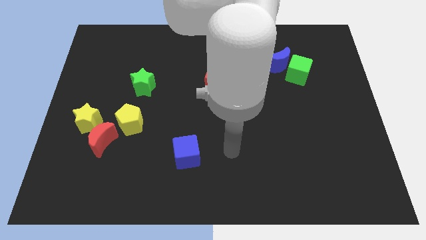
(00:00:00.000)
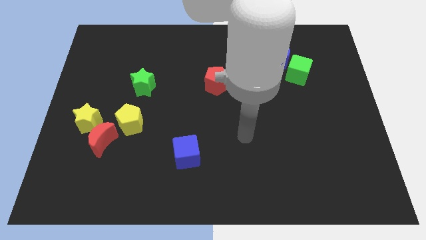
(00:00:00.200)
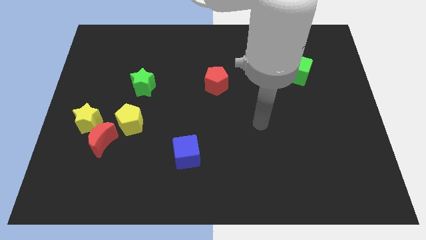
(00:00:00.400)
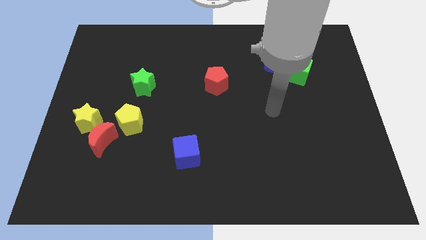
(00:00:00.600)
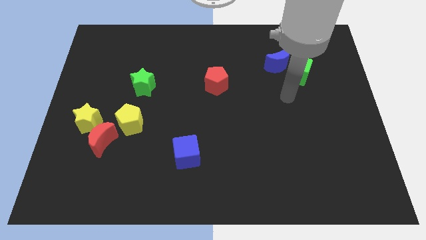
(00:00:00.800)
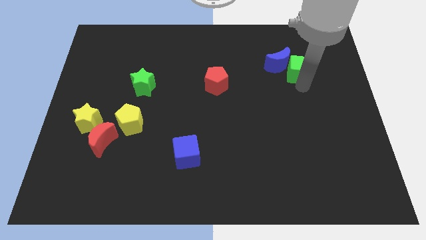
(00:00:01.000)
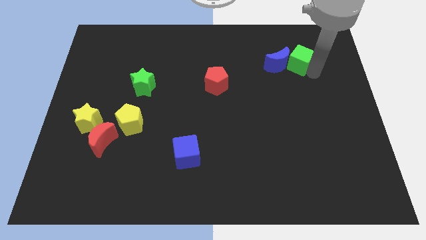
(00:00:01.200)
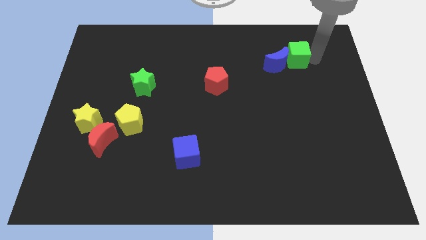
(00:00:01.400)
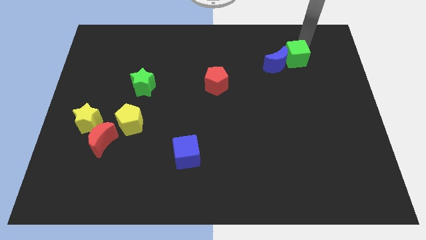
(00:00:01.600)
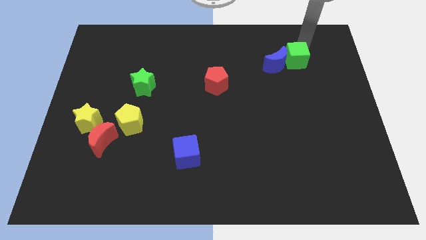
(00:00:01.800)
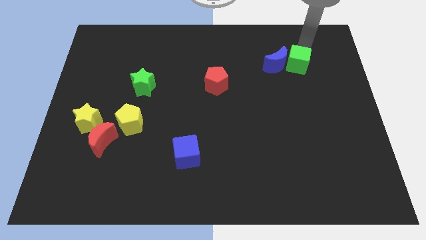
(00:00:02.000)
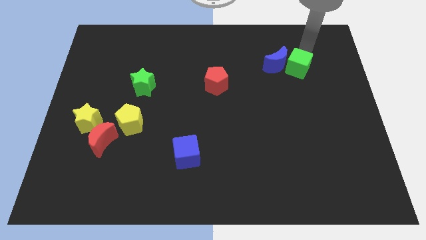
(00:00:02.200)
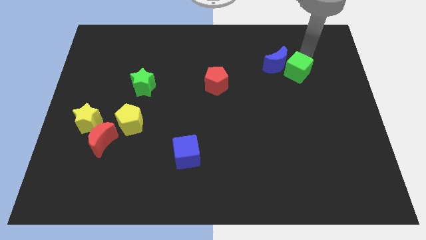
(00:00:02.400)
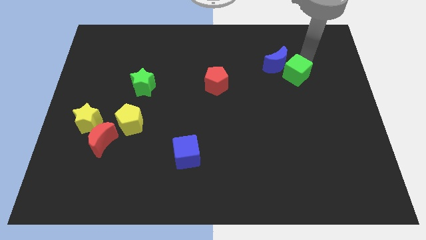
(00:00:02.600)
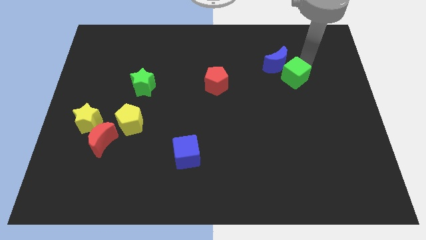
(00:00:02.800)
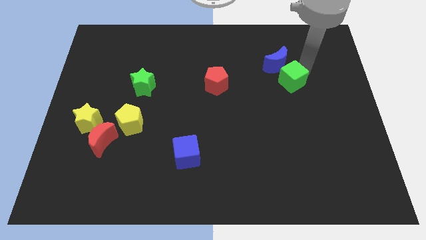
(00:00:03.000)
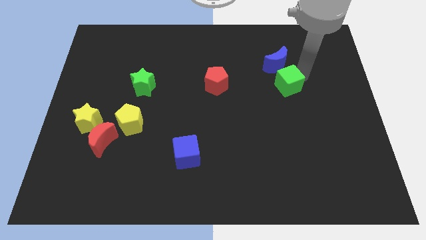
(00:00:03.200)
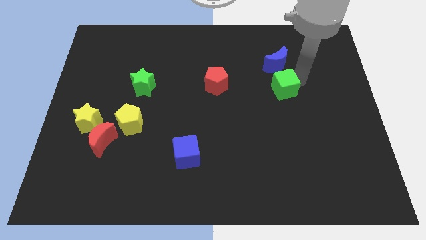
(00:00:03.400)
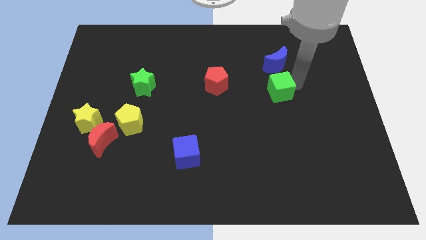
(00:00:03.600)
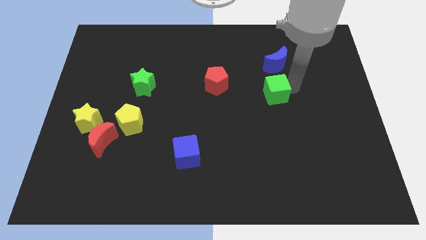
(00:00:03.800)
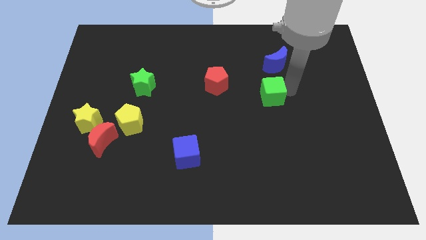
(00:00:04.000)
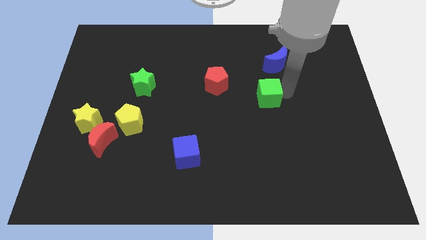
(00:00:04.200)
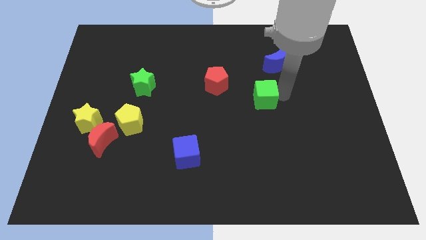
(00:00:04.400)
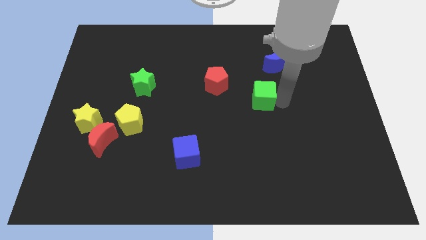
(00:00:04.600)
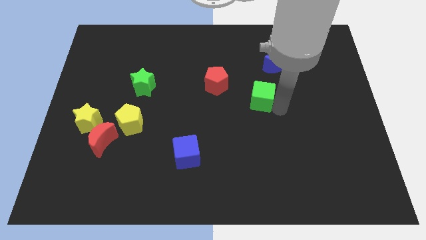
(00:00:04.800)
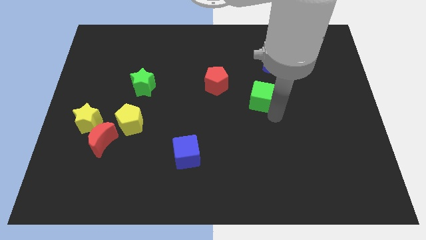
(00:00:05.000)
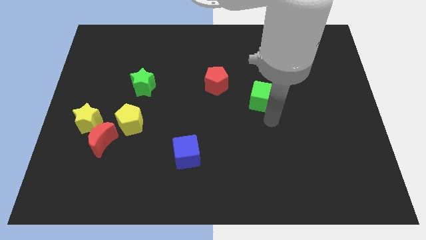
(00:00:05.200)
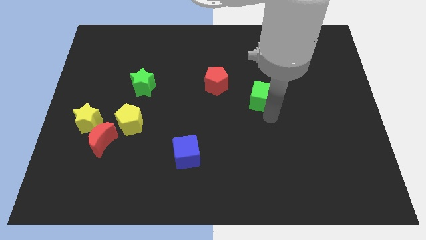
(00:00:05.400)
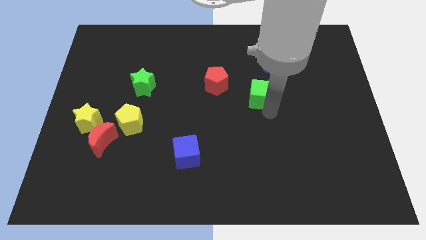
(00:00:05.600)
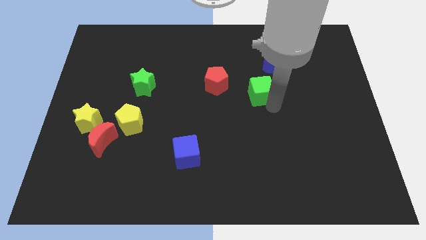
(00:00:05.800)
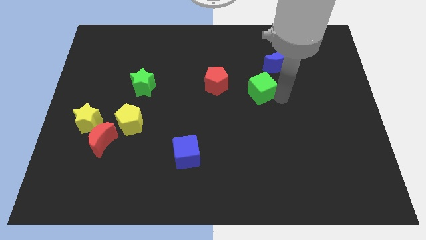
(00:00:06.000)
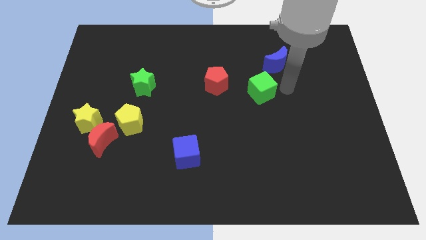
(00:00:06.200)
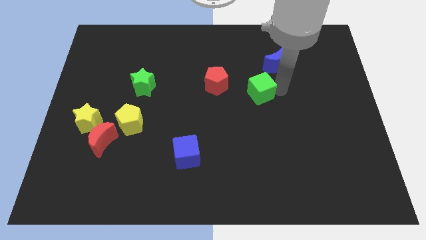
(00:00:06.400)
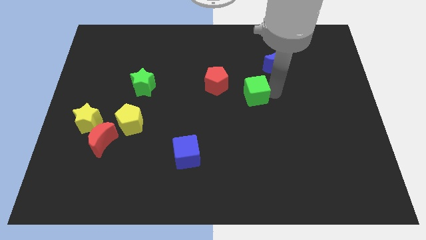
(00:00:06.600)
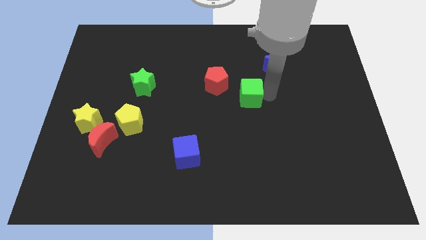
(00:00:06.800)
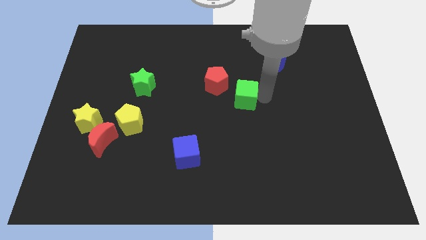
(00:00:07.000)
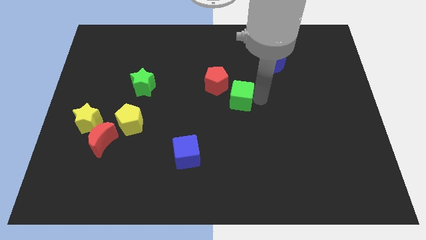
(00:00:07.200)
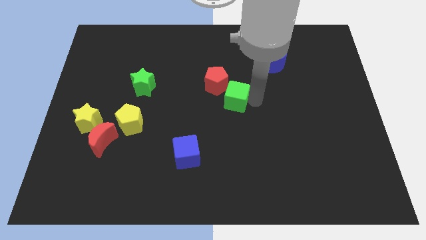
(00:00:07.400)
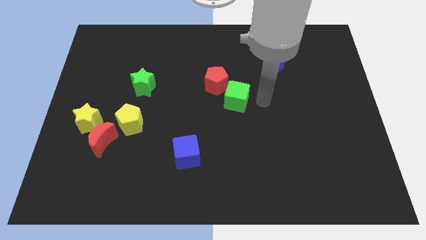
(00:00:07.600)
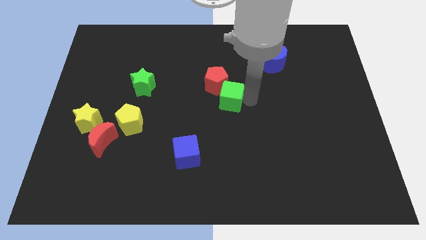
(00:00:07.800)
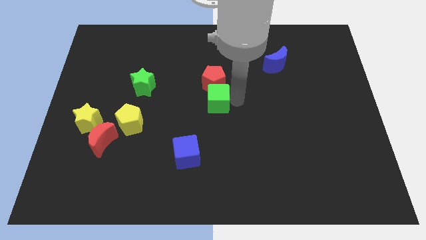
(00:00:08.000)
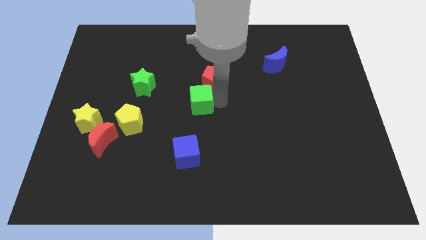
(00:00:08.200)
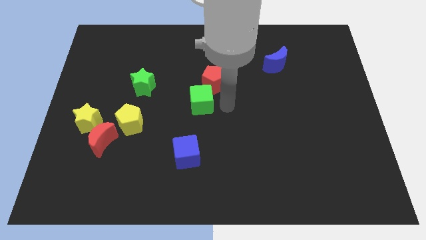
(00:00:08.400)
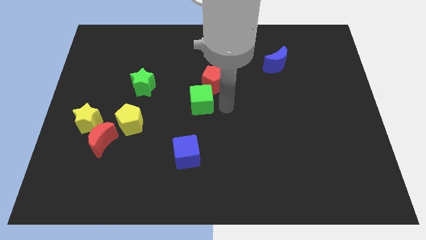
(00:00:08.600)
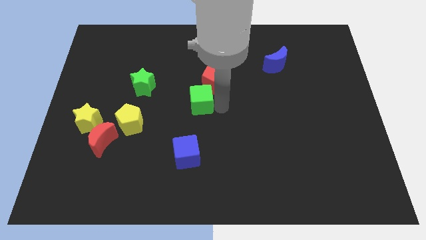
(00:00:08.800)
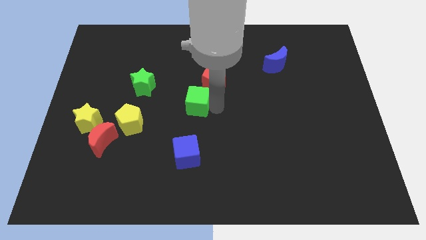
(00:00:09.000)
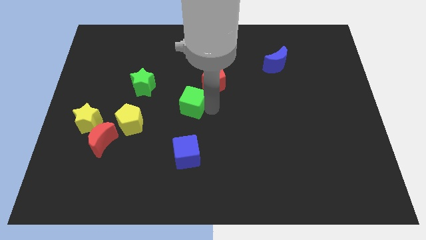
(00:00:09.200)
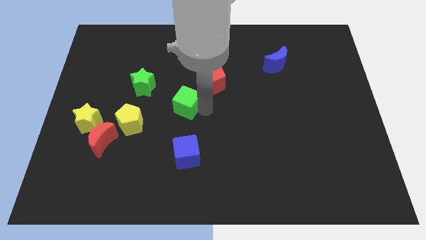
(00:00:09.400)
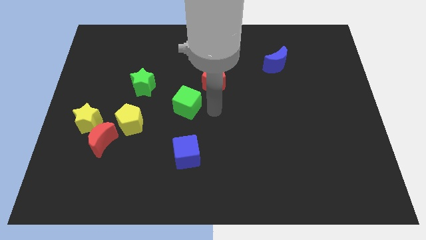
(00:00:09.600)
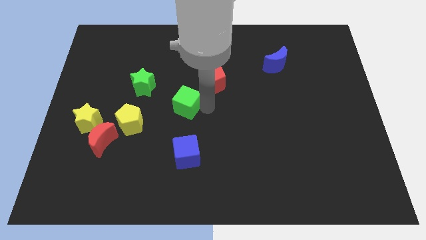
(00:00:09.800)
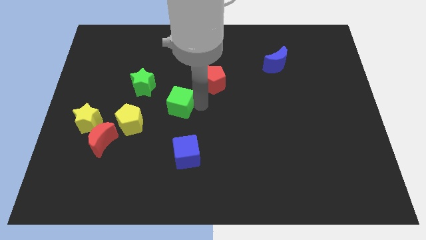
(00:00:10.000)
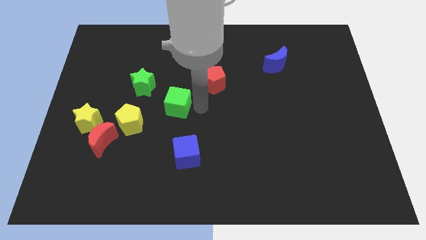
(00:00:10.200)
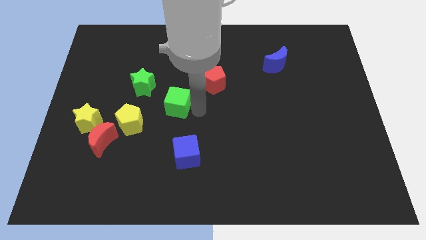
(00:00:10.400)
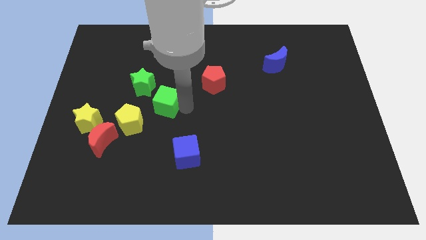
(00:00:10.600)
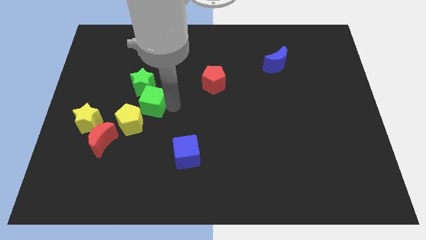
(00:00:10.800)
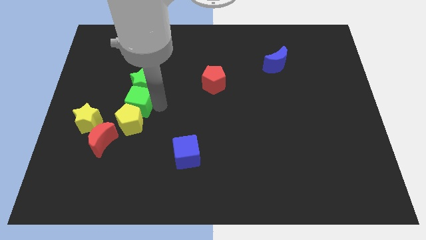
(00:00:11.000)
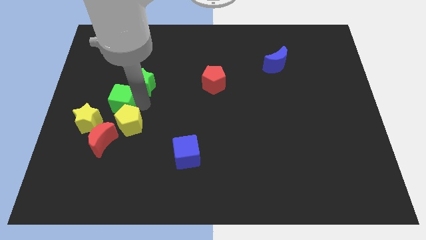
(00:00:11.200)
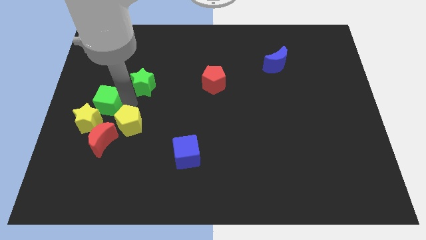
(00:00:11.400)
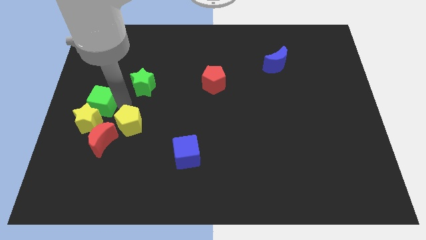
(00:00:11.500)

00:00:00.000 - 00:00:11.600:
push the green cube to the center left
